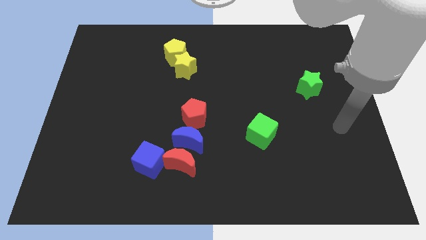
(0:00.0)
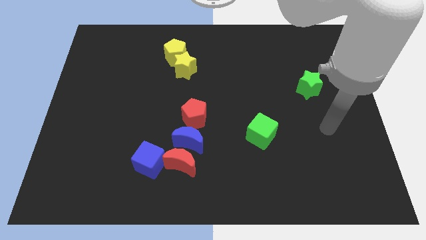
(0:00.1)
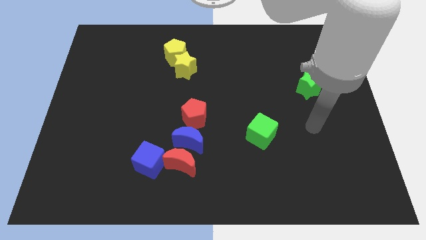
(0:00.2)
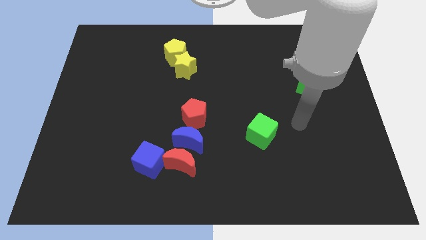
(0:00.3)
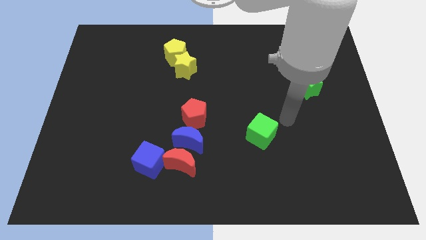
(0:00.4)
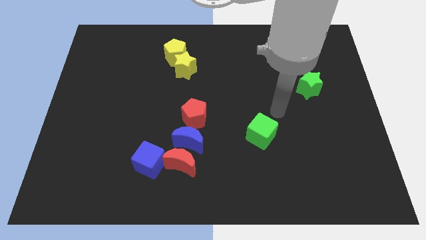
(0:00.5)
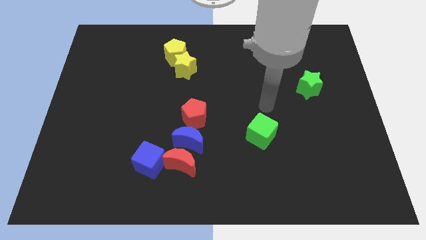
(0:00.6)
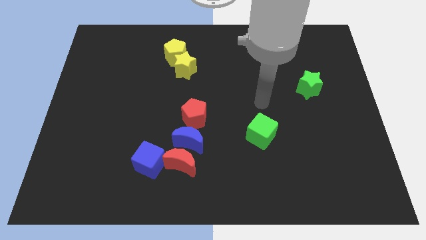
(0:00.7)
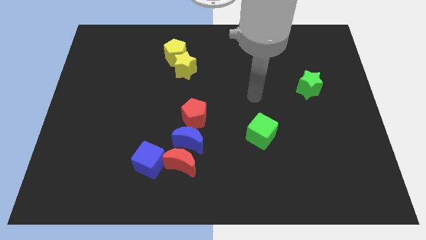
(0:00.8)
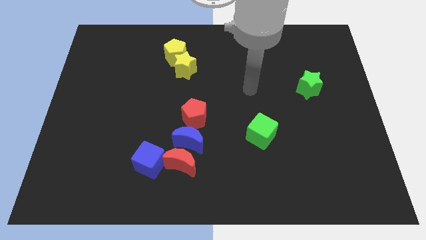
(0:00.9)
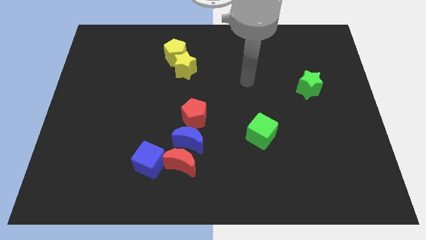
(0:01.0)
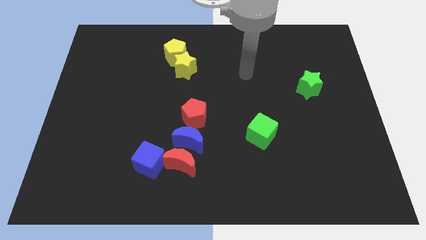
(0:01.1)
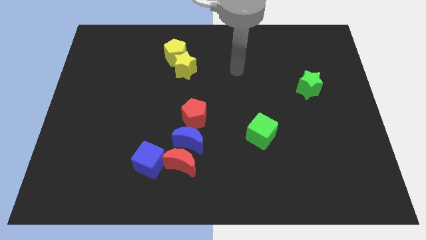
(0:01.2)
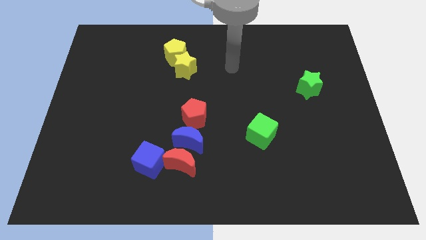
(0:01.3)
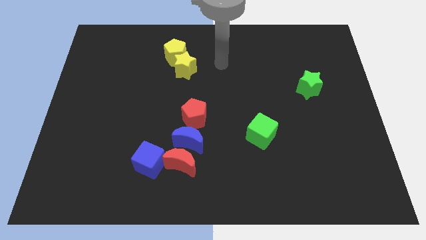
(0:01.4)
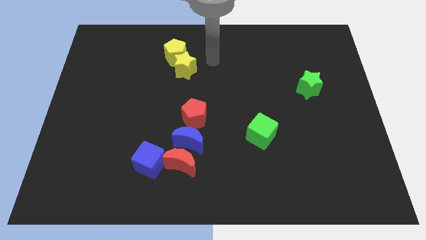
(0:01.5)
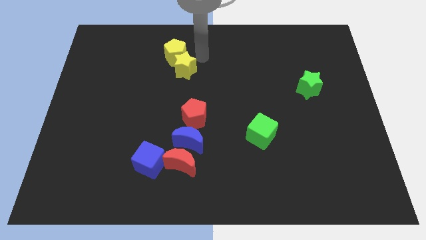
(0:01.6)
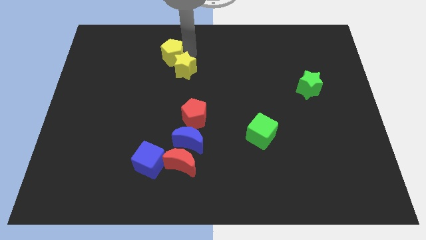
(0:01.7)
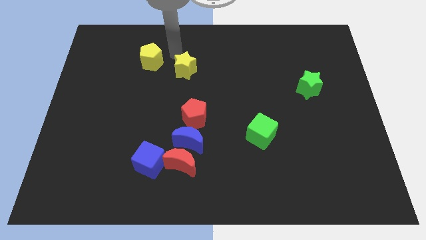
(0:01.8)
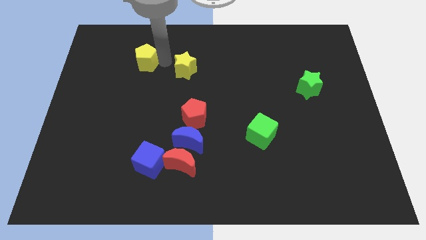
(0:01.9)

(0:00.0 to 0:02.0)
pull the yellow star apart from the yellow pentagon

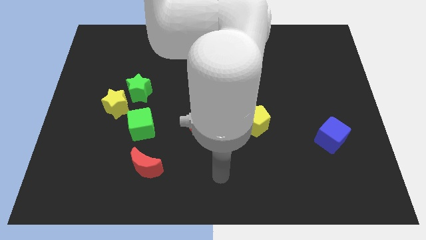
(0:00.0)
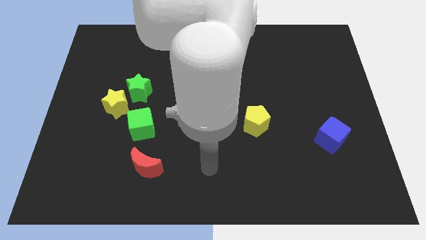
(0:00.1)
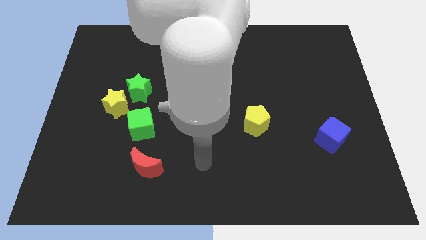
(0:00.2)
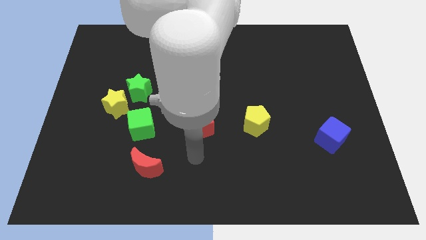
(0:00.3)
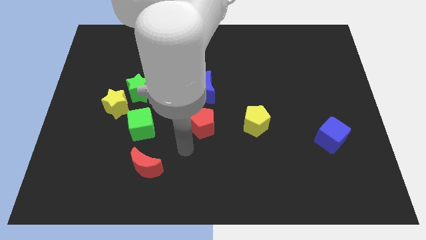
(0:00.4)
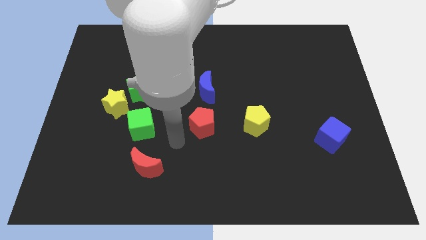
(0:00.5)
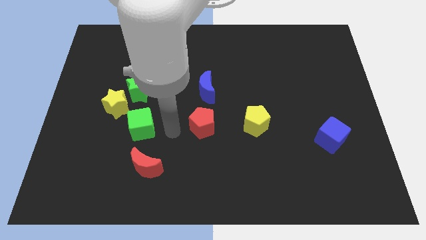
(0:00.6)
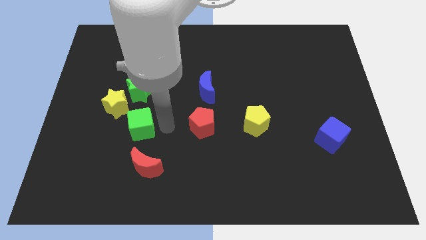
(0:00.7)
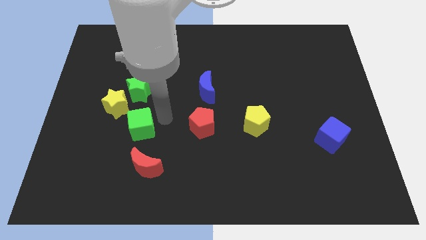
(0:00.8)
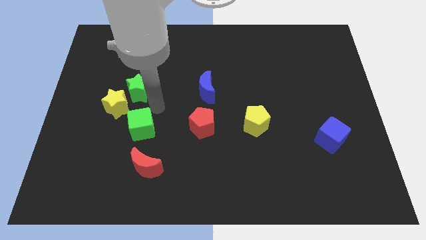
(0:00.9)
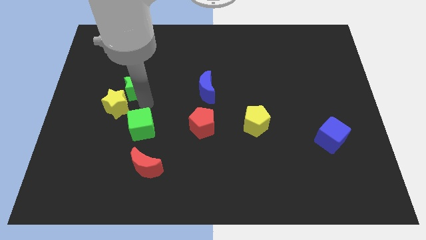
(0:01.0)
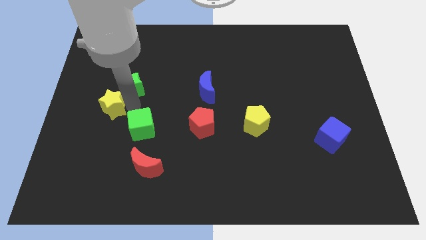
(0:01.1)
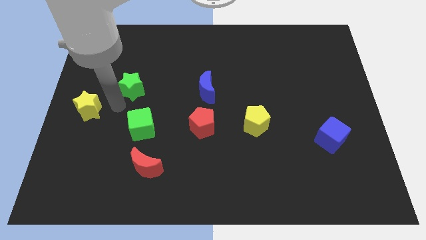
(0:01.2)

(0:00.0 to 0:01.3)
move the green star away from the yellow star

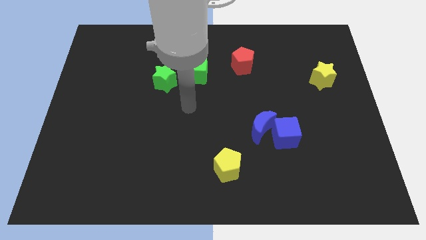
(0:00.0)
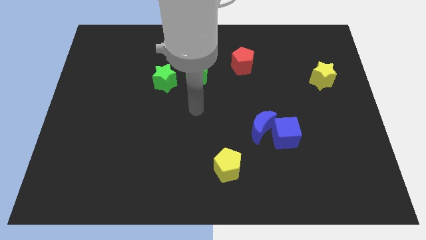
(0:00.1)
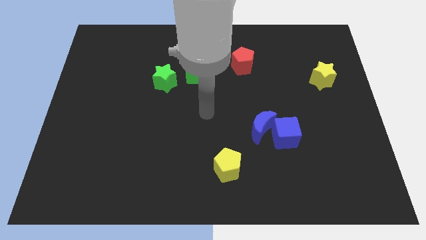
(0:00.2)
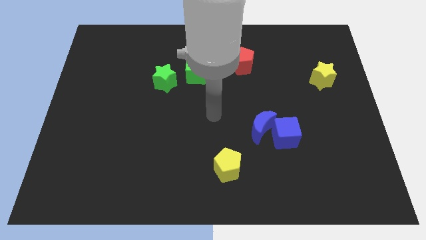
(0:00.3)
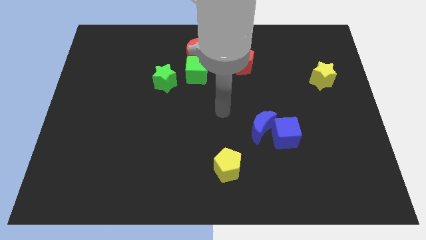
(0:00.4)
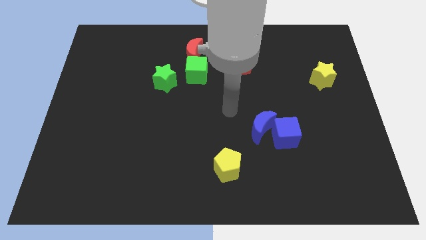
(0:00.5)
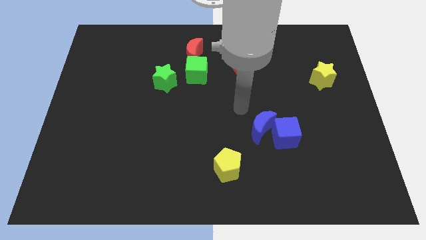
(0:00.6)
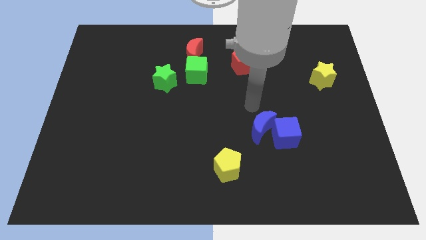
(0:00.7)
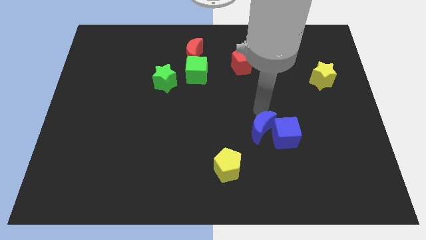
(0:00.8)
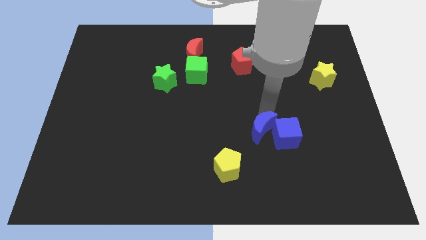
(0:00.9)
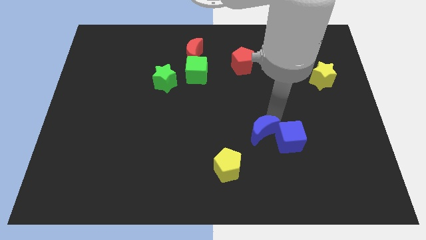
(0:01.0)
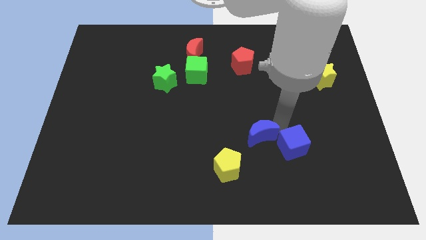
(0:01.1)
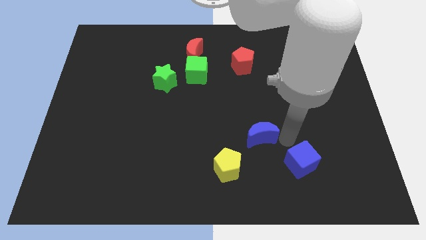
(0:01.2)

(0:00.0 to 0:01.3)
move the blue moon away from the blue cube

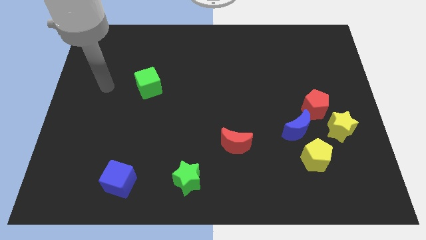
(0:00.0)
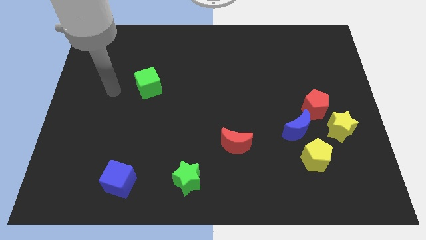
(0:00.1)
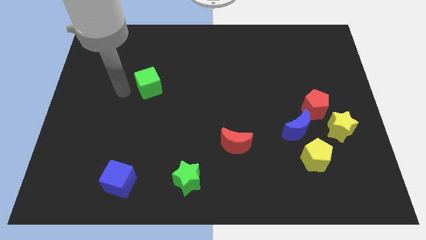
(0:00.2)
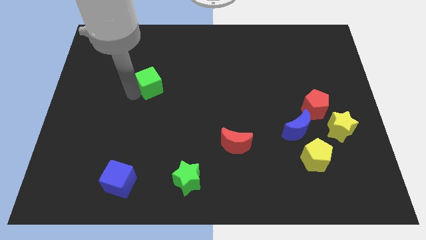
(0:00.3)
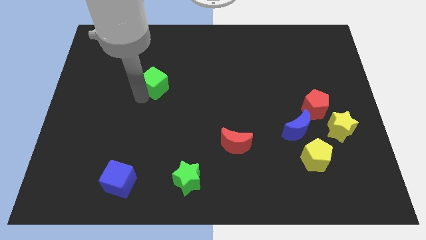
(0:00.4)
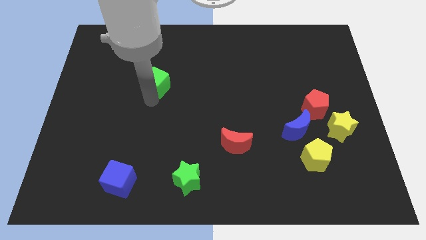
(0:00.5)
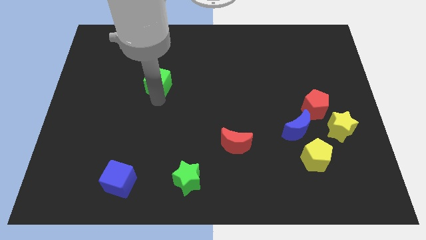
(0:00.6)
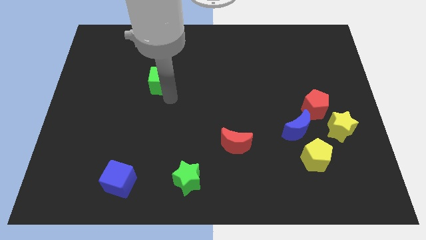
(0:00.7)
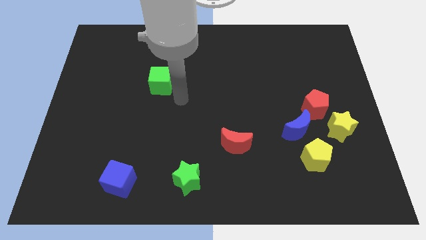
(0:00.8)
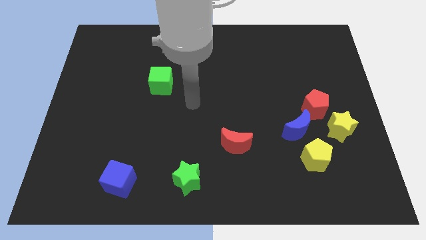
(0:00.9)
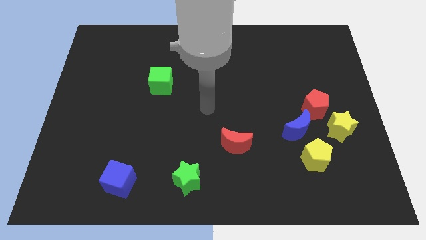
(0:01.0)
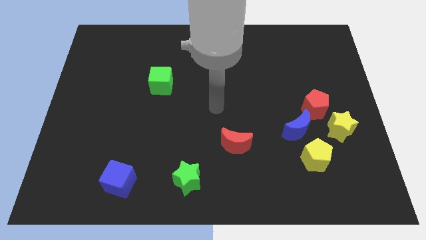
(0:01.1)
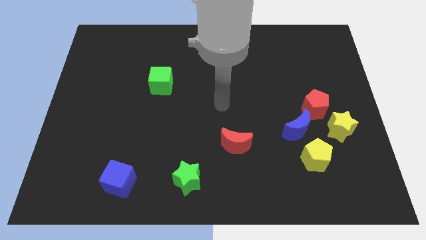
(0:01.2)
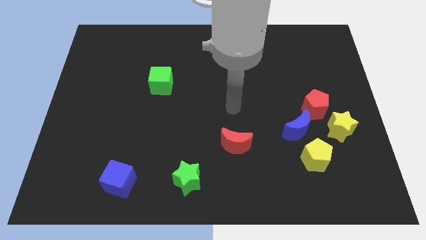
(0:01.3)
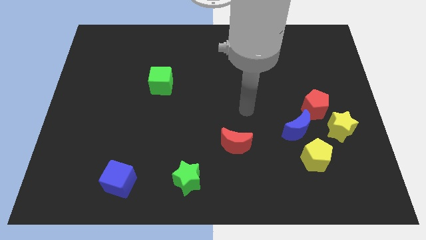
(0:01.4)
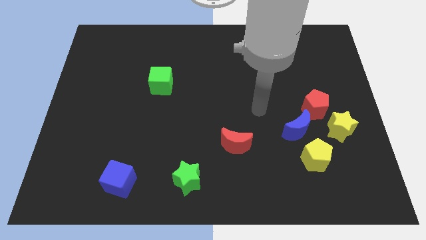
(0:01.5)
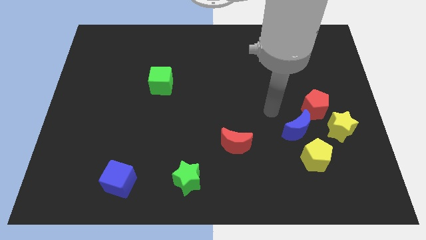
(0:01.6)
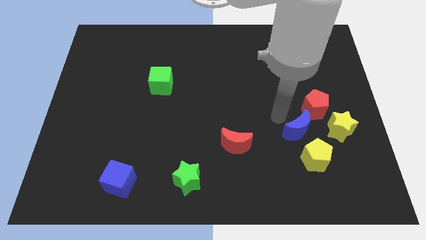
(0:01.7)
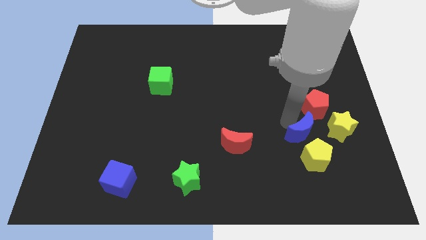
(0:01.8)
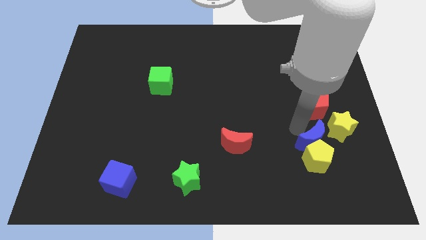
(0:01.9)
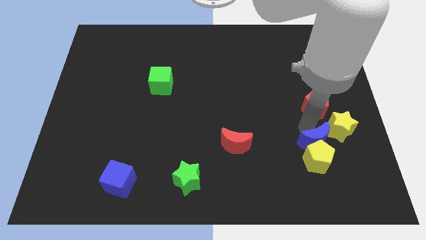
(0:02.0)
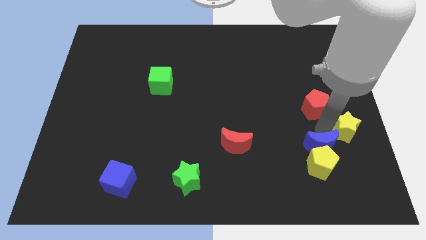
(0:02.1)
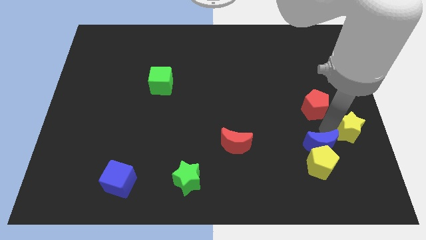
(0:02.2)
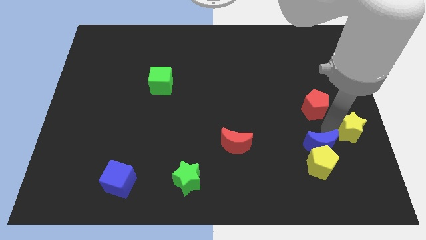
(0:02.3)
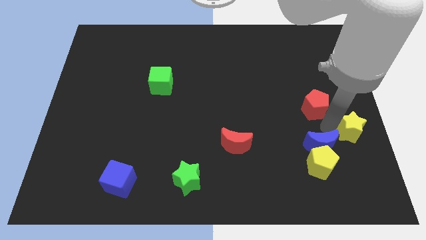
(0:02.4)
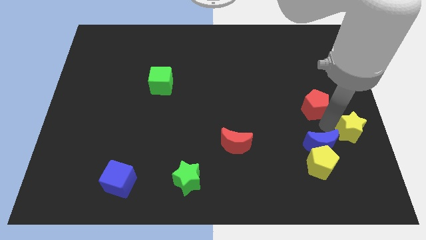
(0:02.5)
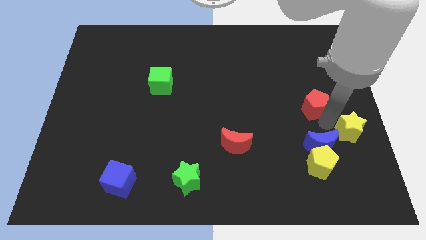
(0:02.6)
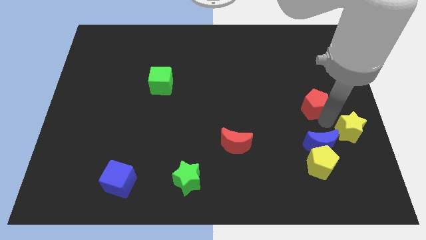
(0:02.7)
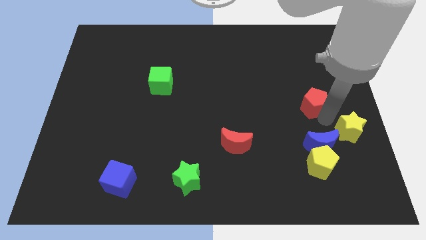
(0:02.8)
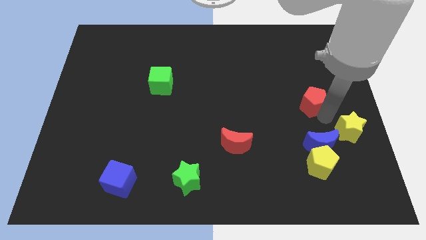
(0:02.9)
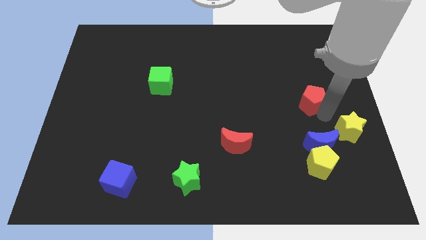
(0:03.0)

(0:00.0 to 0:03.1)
move the red pentagon away from the yellow star and blue moon

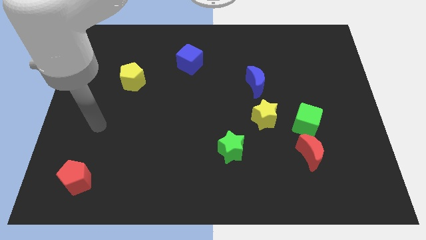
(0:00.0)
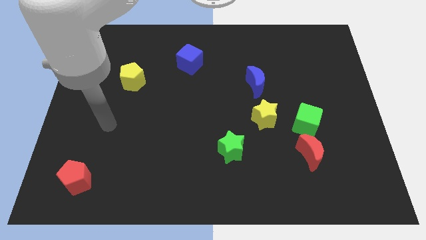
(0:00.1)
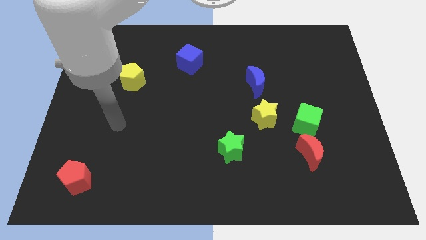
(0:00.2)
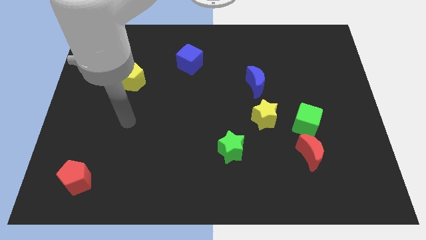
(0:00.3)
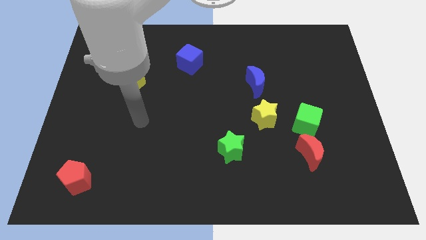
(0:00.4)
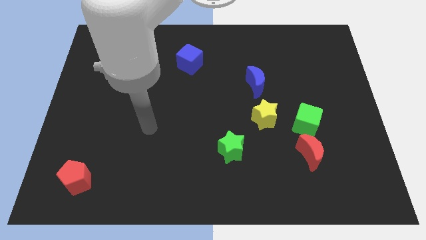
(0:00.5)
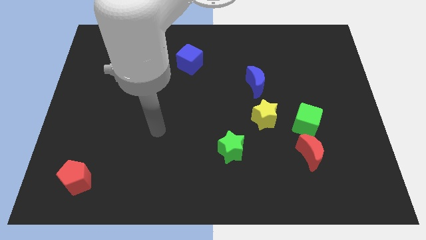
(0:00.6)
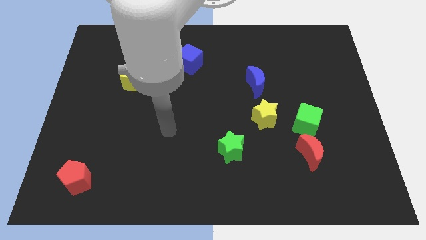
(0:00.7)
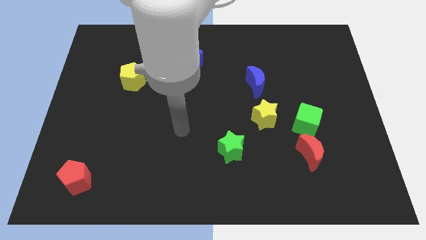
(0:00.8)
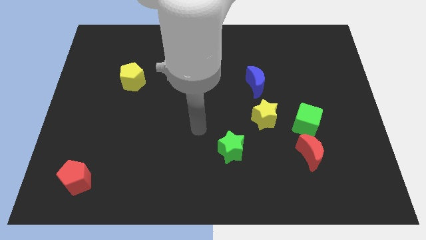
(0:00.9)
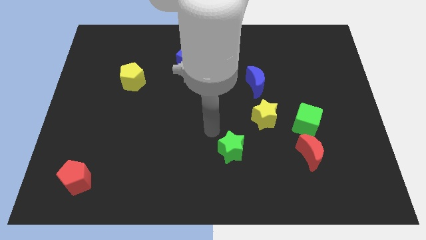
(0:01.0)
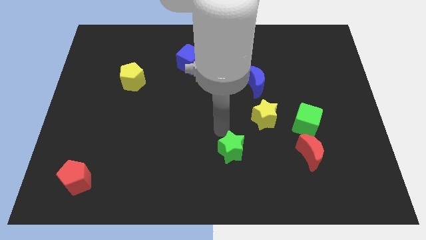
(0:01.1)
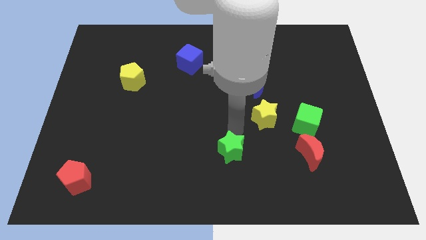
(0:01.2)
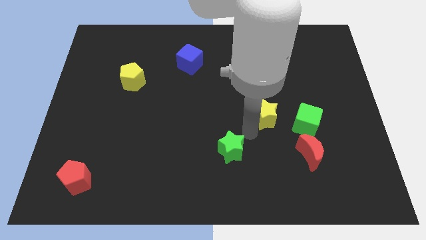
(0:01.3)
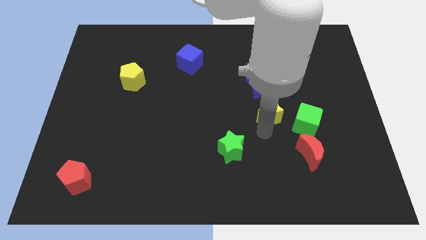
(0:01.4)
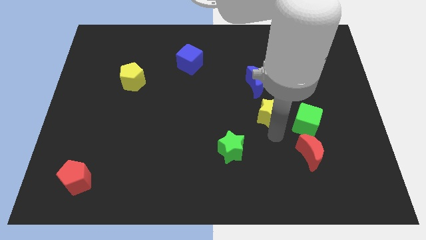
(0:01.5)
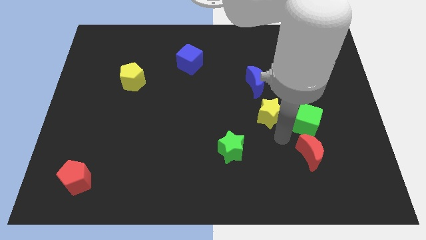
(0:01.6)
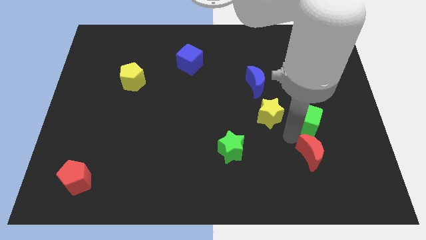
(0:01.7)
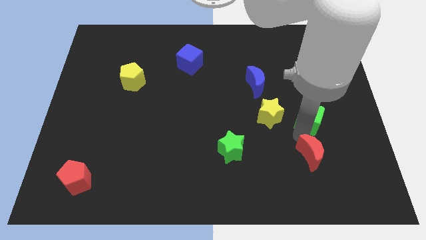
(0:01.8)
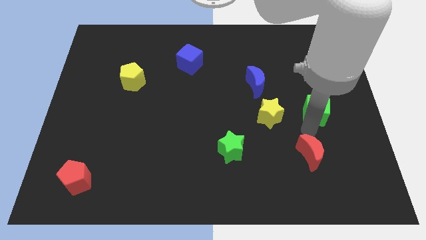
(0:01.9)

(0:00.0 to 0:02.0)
pull the red moon apart from the green cube
